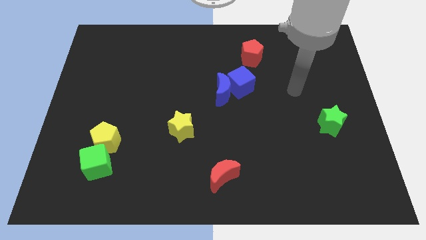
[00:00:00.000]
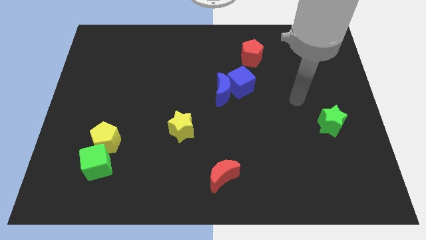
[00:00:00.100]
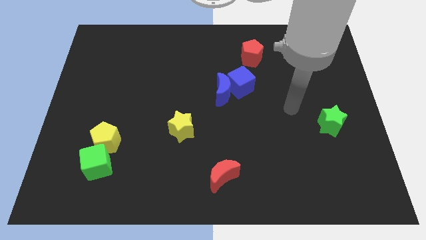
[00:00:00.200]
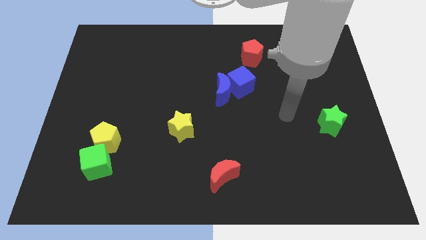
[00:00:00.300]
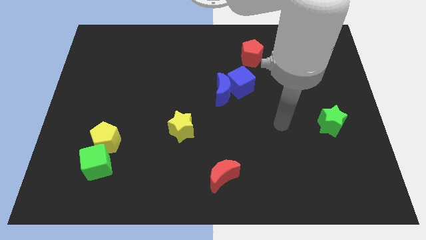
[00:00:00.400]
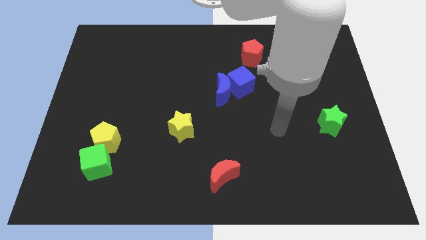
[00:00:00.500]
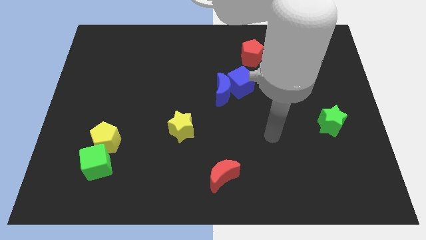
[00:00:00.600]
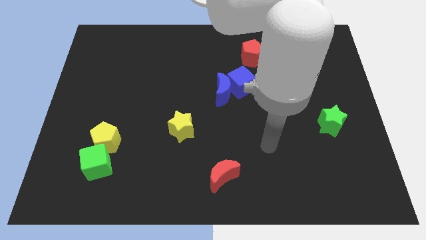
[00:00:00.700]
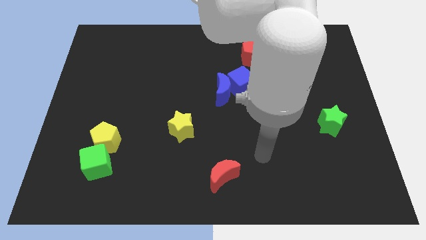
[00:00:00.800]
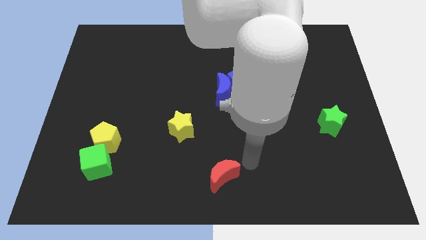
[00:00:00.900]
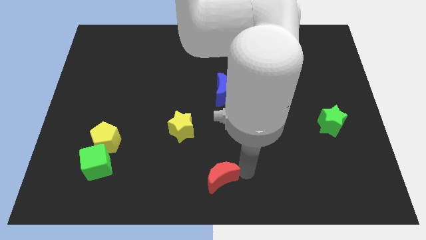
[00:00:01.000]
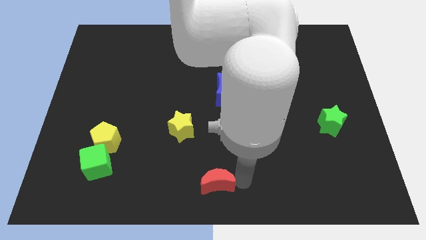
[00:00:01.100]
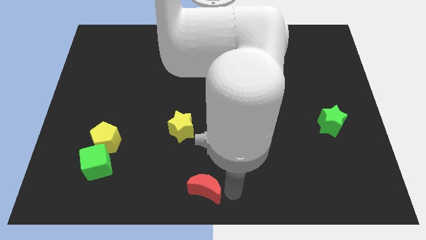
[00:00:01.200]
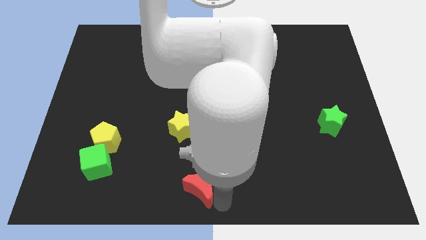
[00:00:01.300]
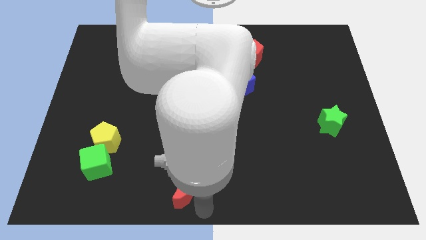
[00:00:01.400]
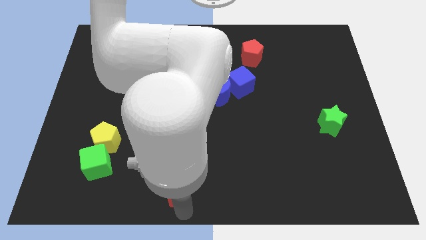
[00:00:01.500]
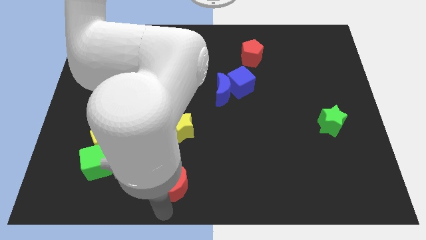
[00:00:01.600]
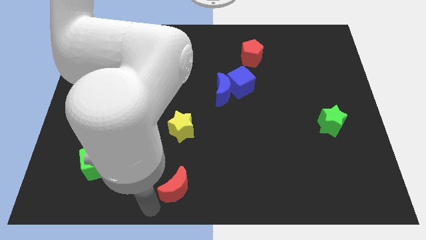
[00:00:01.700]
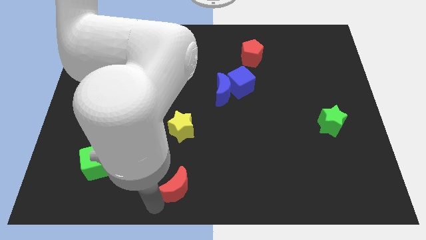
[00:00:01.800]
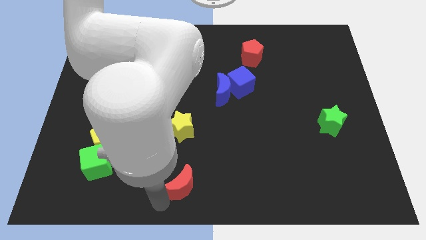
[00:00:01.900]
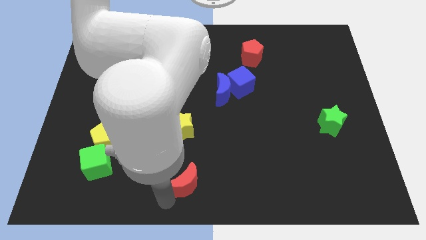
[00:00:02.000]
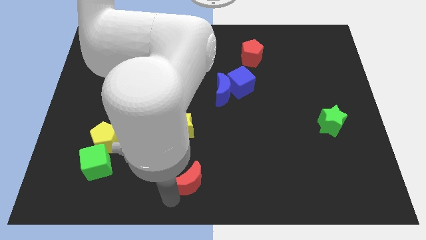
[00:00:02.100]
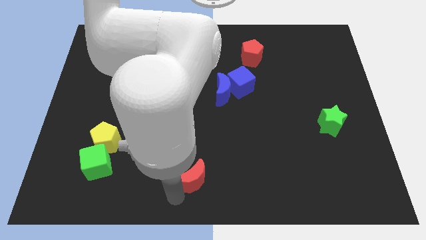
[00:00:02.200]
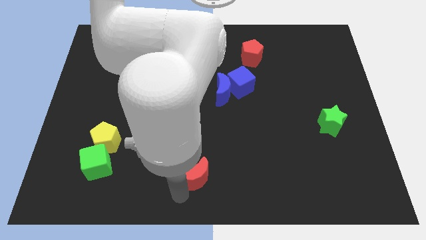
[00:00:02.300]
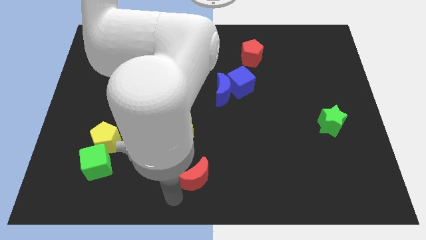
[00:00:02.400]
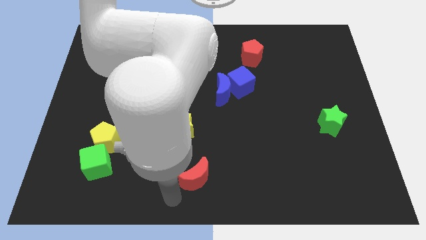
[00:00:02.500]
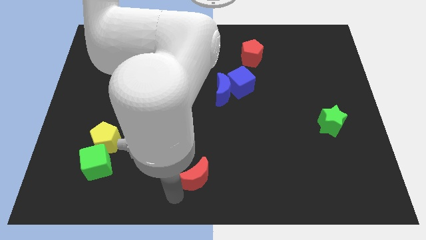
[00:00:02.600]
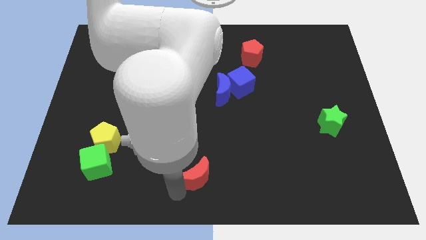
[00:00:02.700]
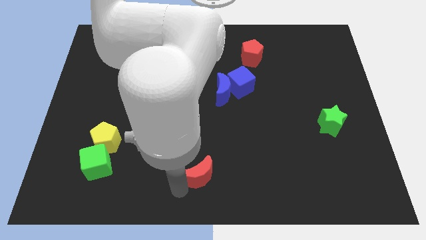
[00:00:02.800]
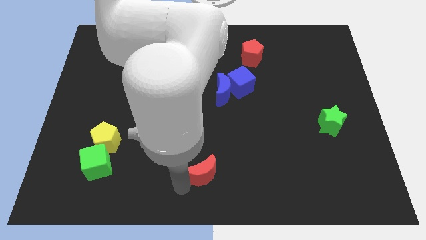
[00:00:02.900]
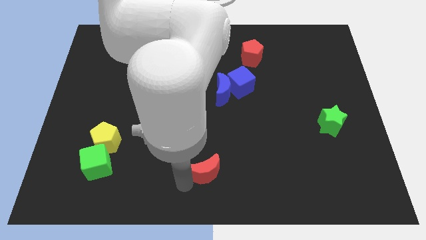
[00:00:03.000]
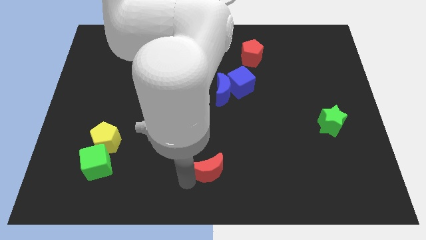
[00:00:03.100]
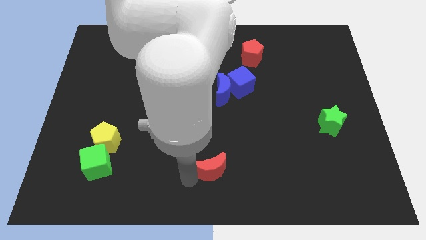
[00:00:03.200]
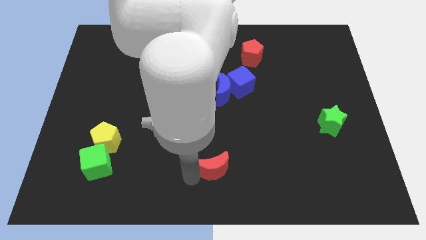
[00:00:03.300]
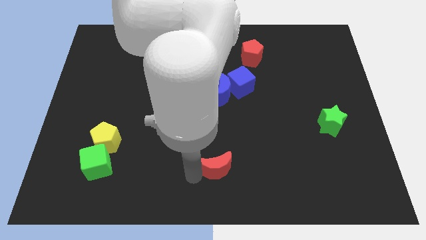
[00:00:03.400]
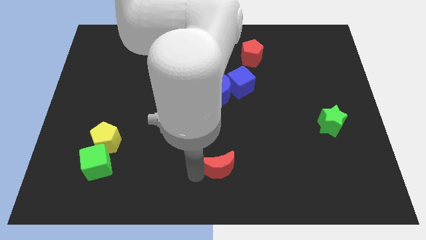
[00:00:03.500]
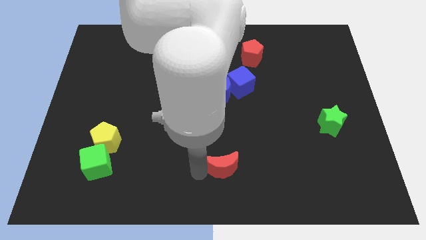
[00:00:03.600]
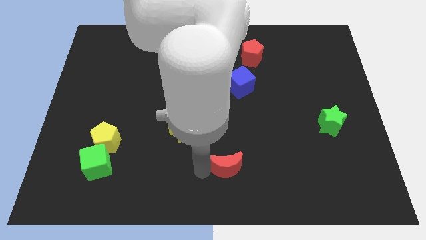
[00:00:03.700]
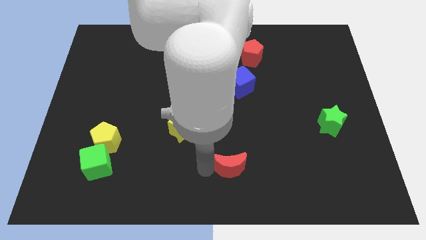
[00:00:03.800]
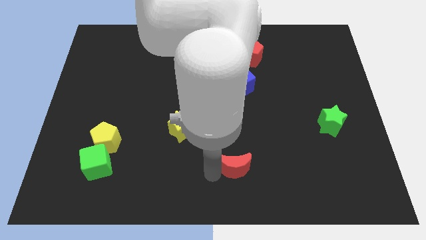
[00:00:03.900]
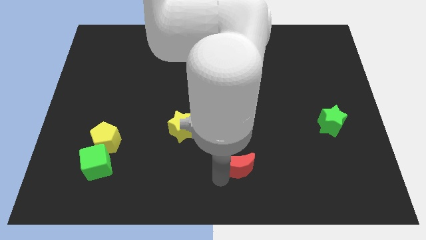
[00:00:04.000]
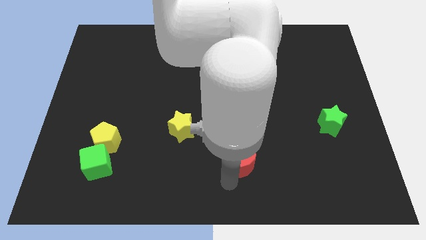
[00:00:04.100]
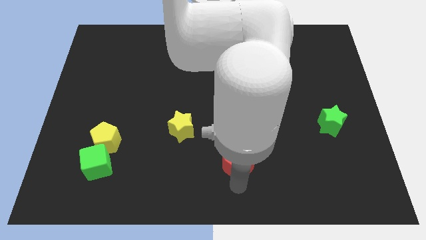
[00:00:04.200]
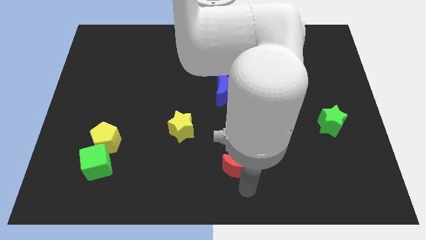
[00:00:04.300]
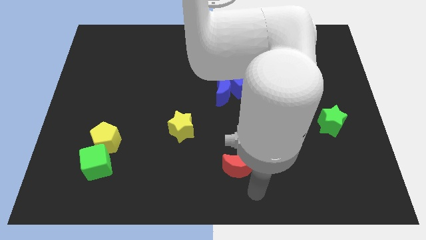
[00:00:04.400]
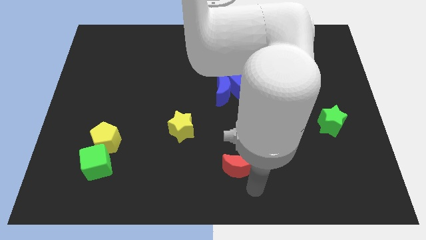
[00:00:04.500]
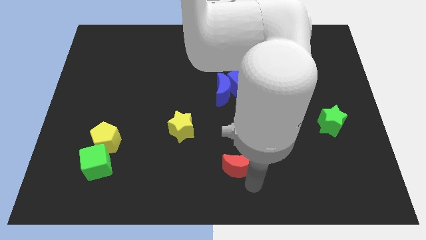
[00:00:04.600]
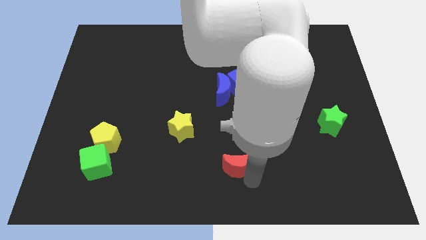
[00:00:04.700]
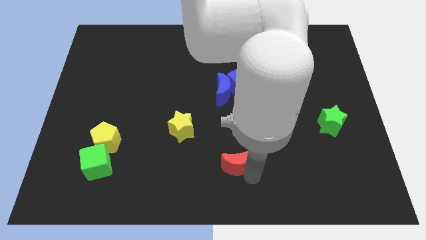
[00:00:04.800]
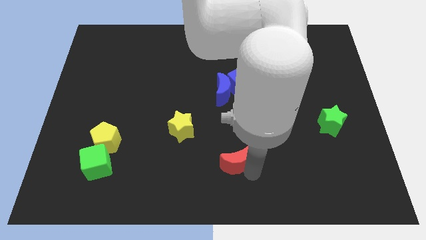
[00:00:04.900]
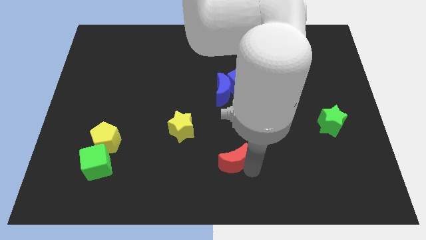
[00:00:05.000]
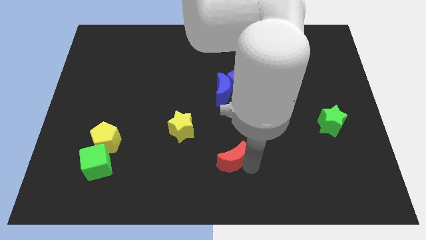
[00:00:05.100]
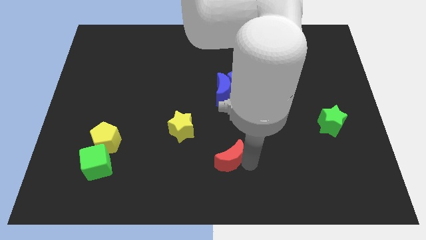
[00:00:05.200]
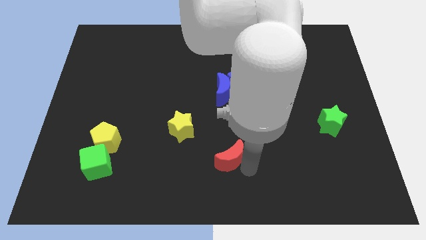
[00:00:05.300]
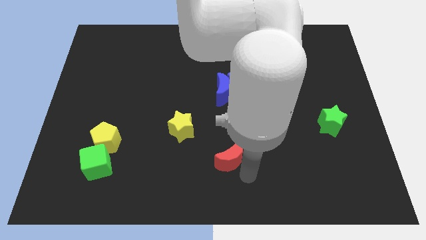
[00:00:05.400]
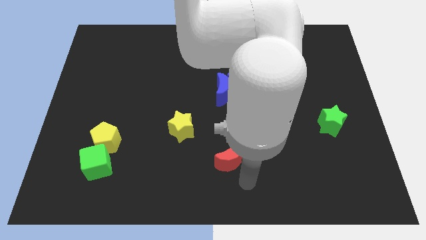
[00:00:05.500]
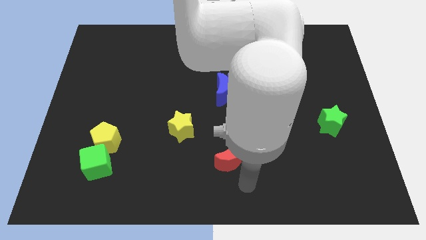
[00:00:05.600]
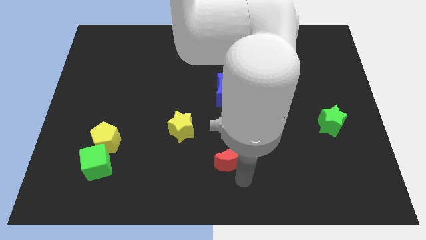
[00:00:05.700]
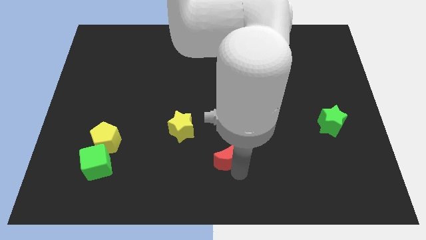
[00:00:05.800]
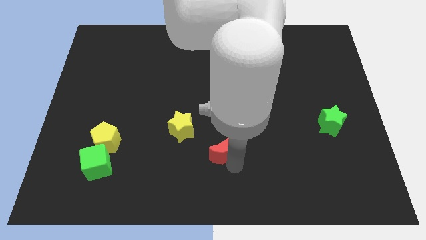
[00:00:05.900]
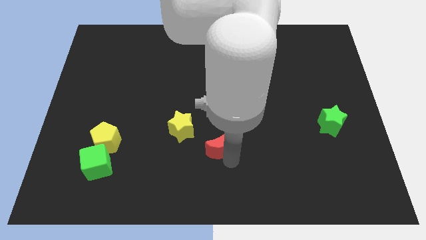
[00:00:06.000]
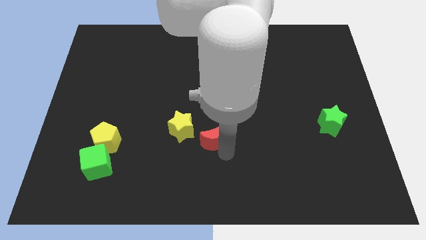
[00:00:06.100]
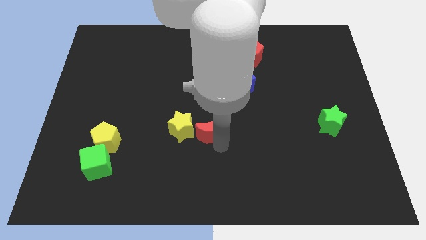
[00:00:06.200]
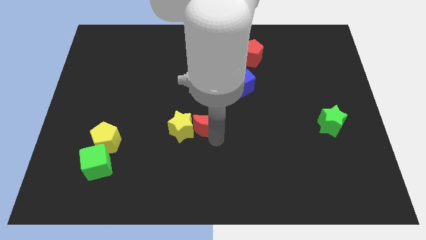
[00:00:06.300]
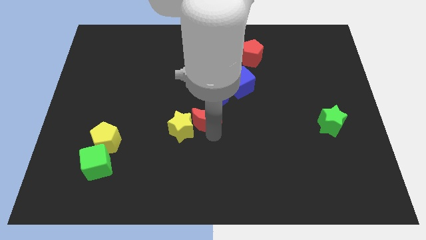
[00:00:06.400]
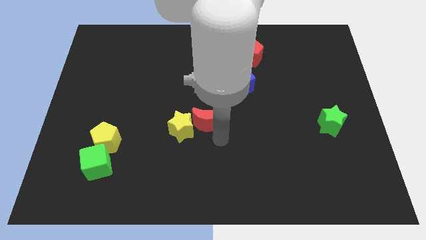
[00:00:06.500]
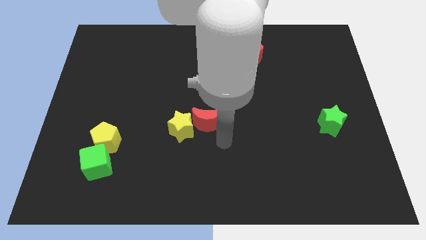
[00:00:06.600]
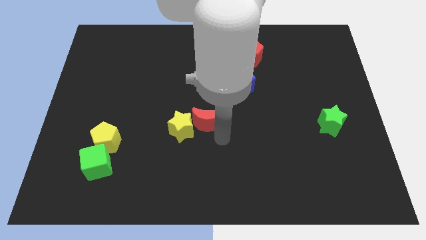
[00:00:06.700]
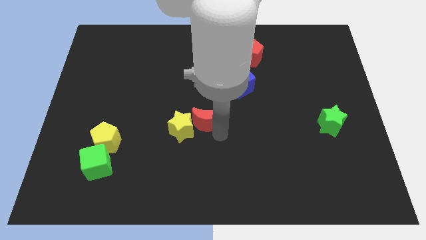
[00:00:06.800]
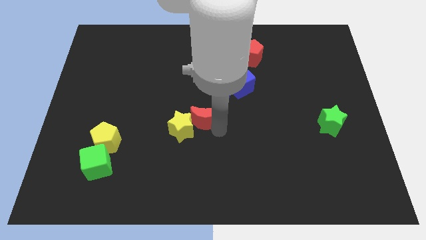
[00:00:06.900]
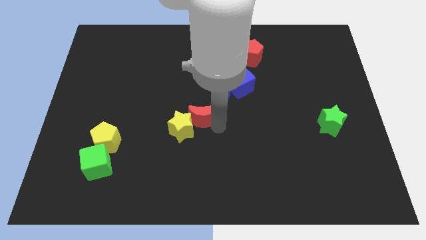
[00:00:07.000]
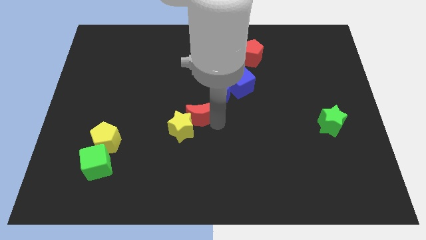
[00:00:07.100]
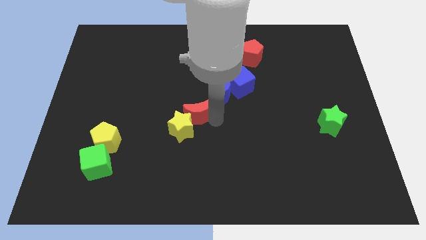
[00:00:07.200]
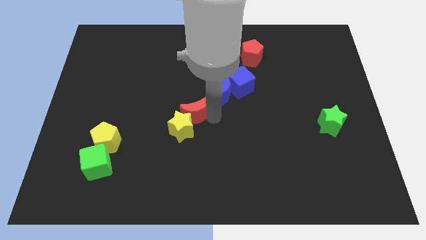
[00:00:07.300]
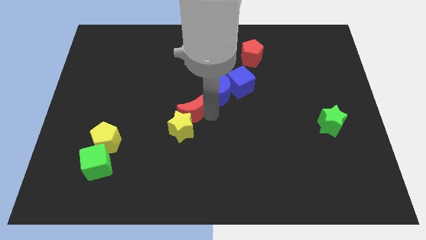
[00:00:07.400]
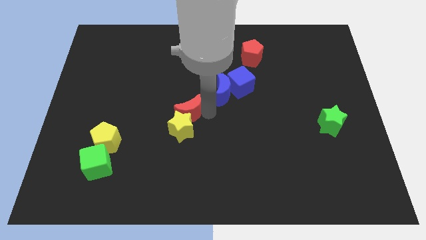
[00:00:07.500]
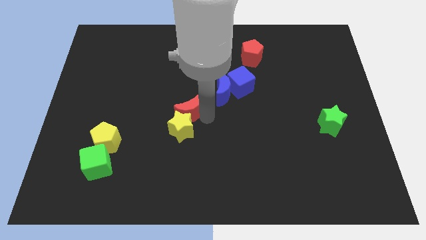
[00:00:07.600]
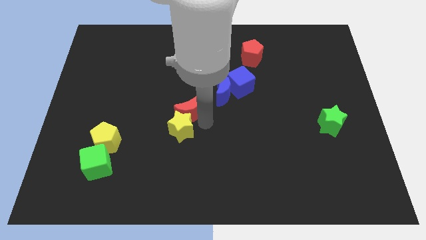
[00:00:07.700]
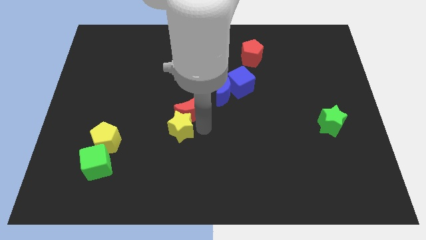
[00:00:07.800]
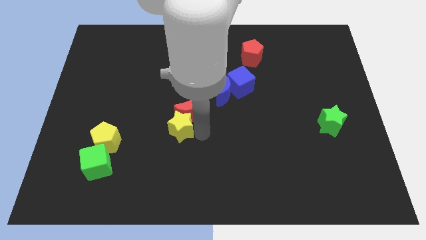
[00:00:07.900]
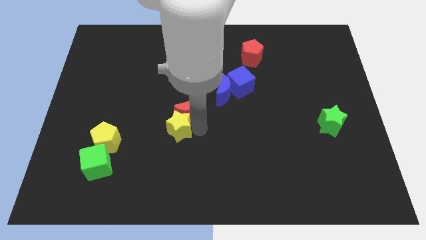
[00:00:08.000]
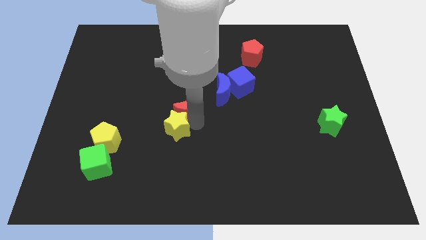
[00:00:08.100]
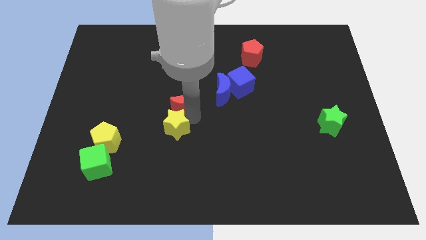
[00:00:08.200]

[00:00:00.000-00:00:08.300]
put the red moon to the left side of the blue moon
